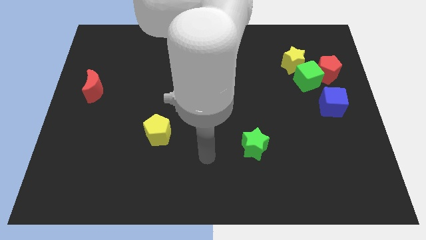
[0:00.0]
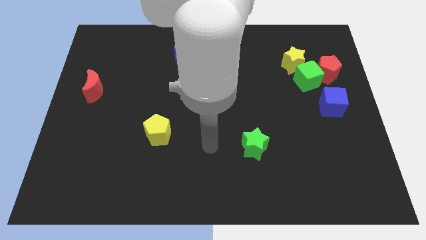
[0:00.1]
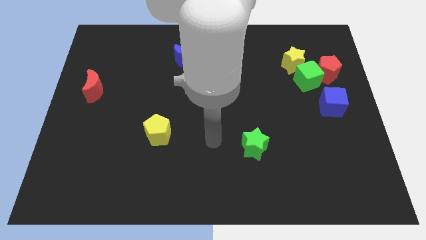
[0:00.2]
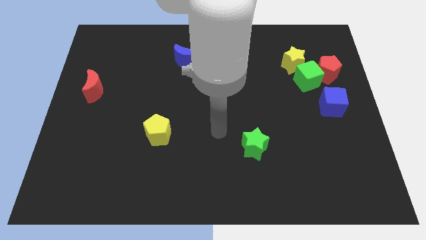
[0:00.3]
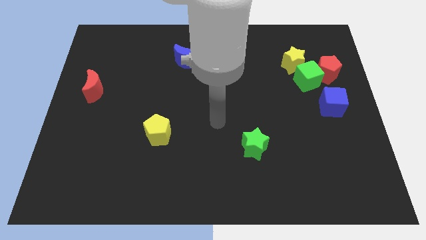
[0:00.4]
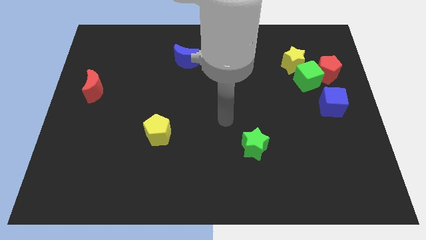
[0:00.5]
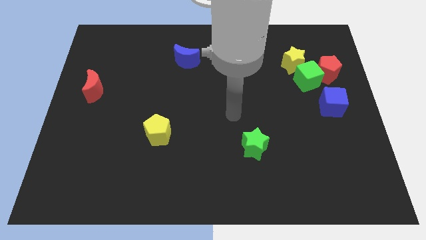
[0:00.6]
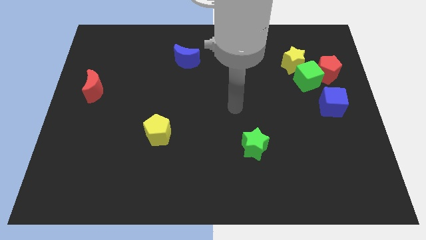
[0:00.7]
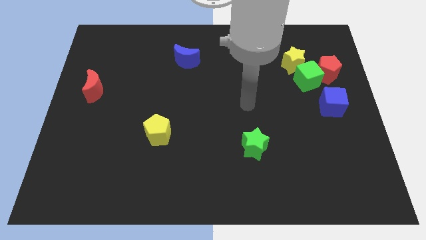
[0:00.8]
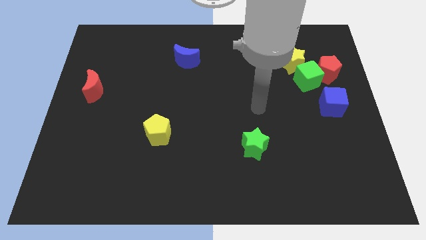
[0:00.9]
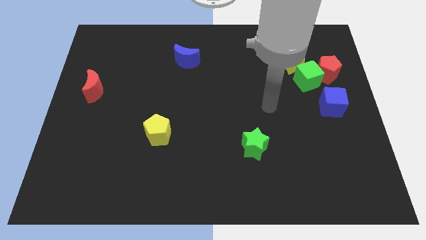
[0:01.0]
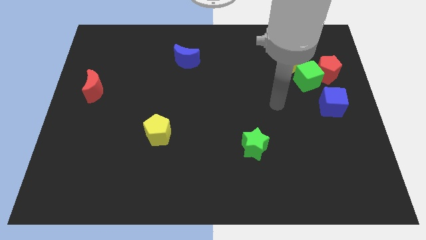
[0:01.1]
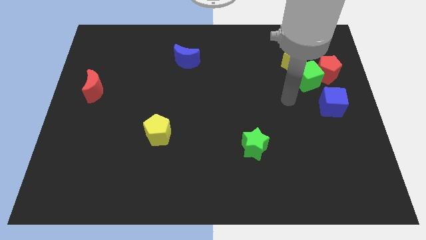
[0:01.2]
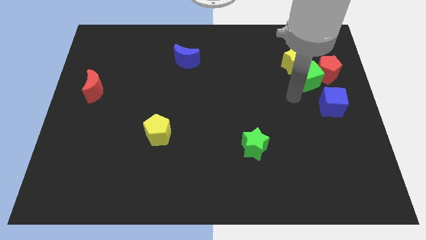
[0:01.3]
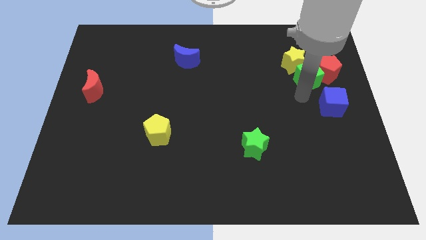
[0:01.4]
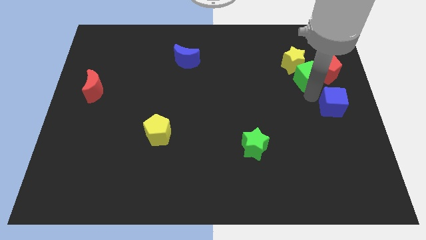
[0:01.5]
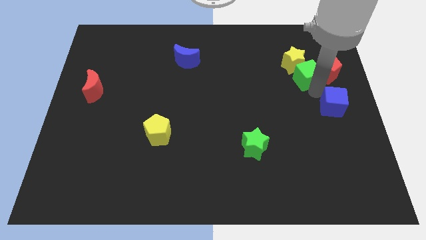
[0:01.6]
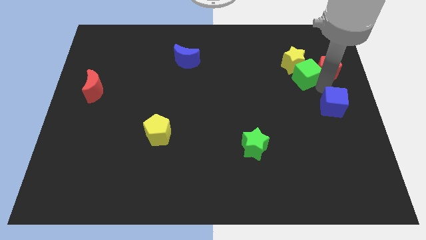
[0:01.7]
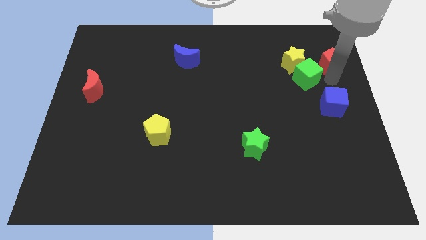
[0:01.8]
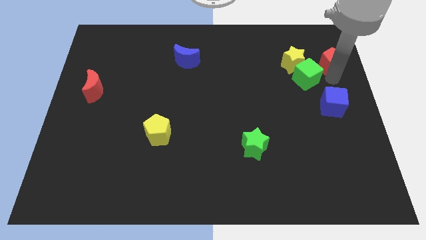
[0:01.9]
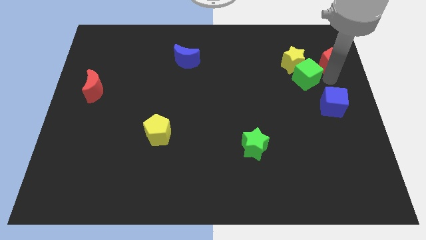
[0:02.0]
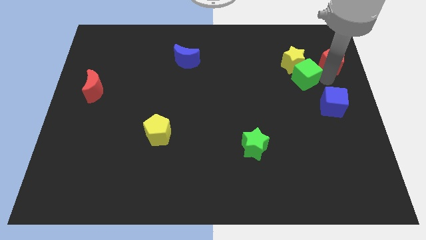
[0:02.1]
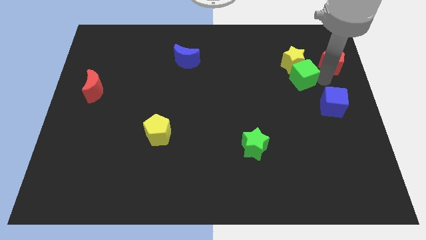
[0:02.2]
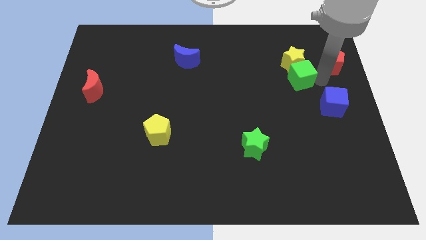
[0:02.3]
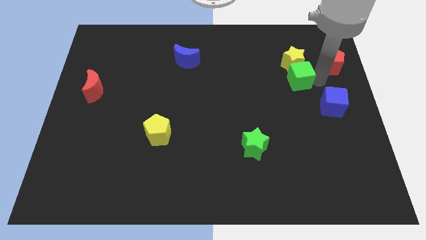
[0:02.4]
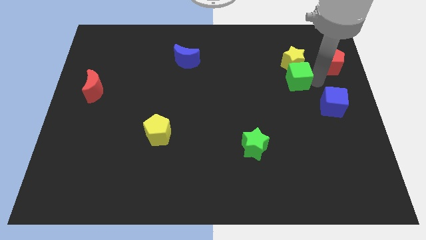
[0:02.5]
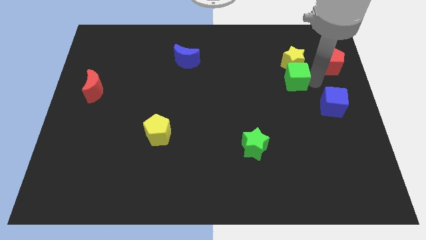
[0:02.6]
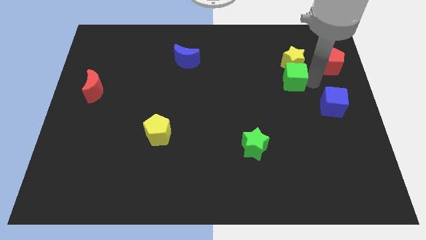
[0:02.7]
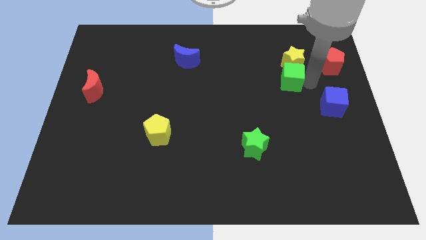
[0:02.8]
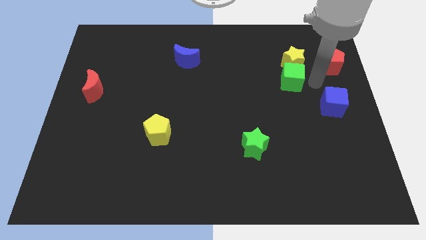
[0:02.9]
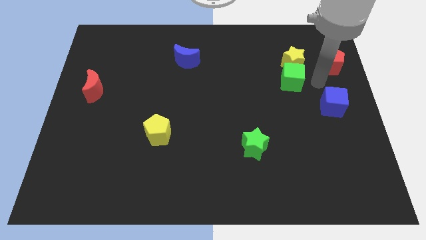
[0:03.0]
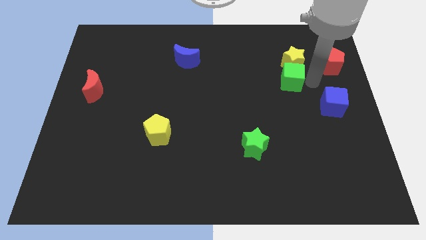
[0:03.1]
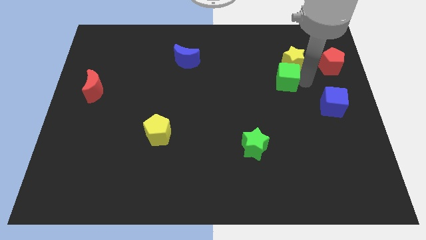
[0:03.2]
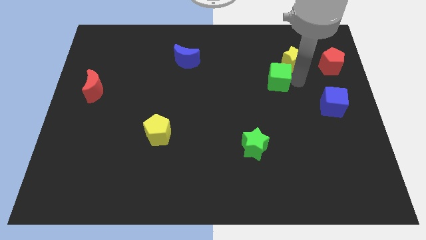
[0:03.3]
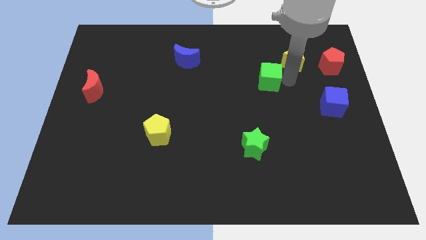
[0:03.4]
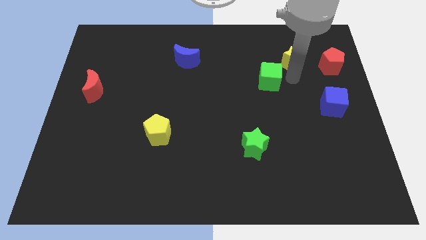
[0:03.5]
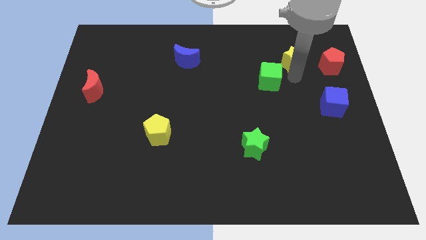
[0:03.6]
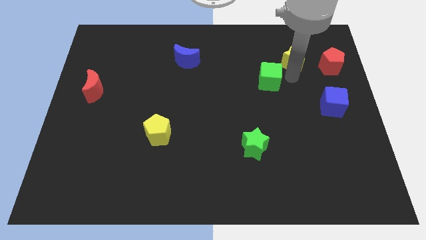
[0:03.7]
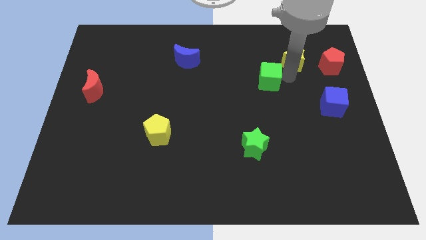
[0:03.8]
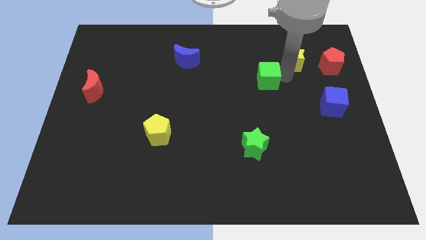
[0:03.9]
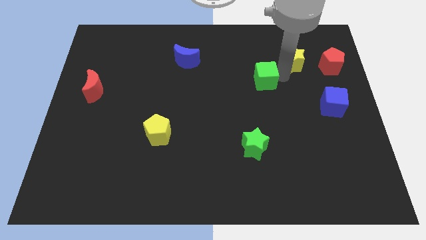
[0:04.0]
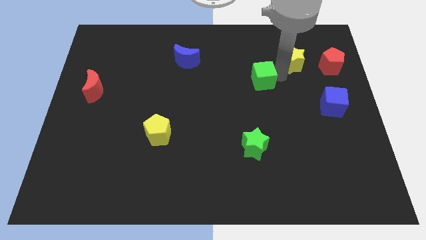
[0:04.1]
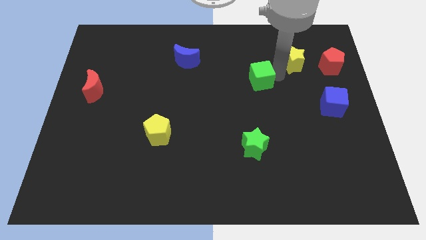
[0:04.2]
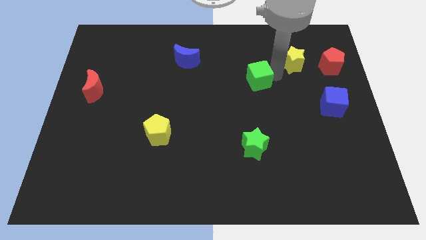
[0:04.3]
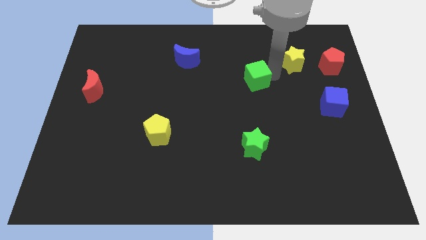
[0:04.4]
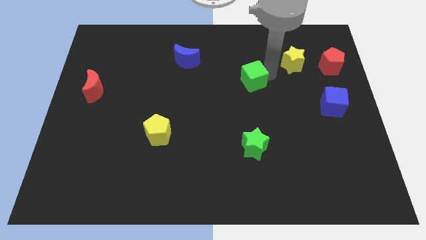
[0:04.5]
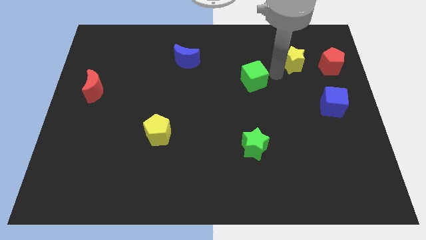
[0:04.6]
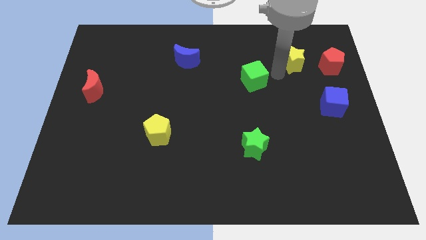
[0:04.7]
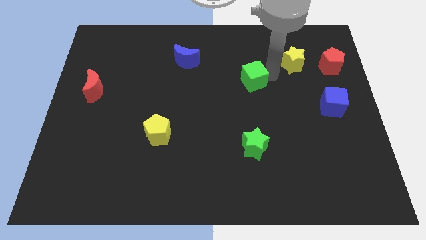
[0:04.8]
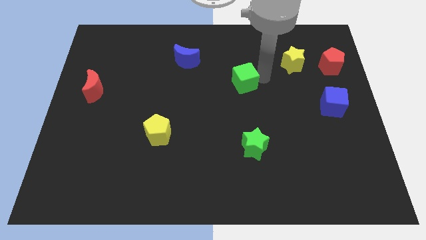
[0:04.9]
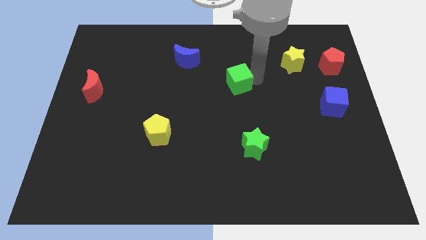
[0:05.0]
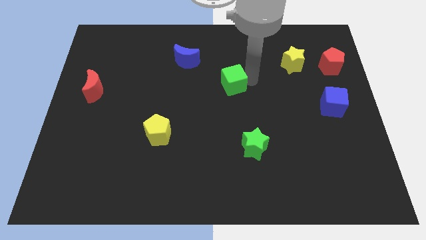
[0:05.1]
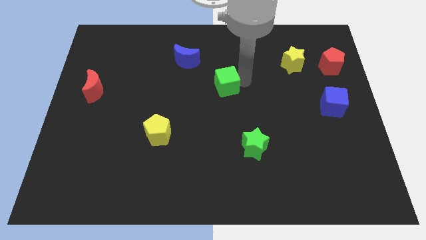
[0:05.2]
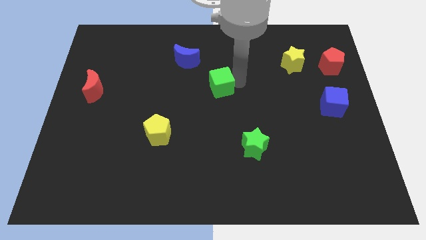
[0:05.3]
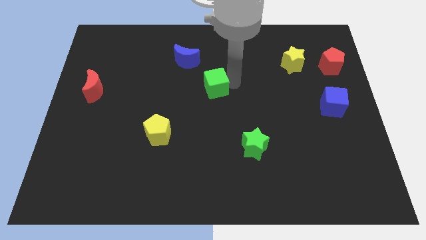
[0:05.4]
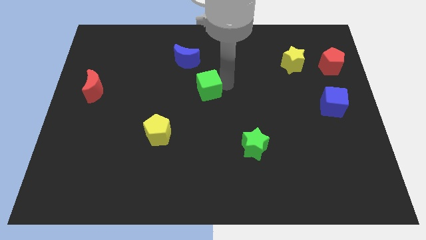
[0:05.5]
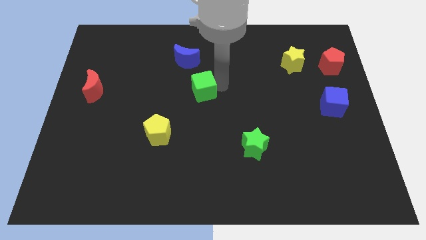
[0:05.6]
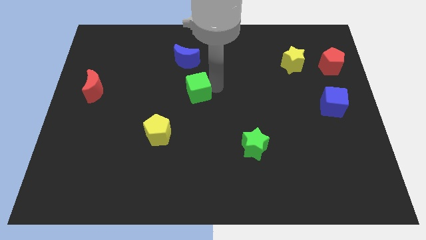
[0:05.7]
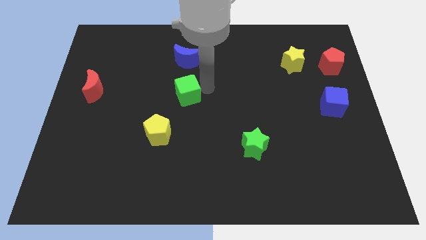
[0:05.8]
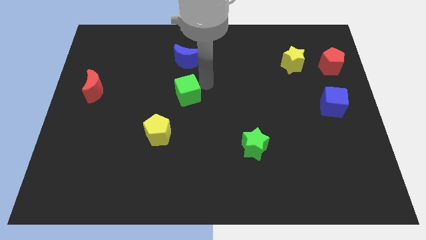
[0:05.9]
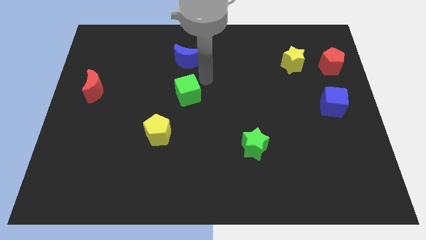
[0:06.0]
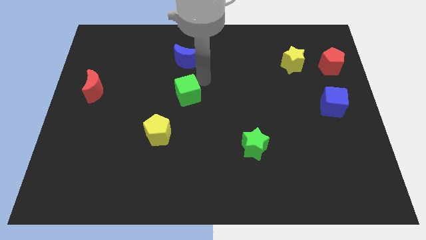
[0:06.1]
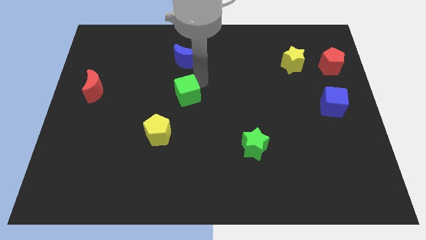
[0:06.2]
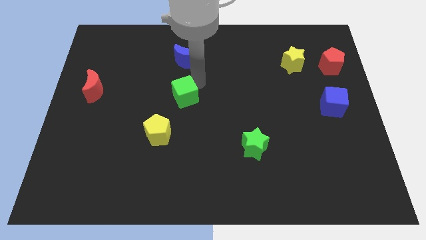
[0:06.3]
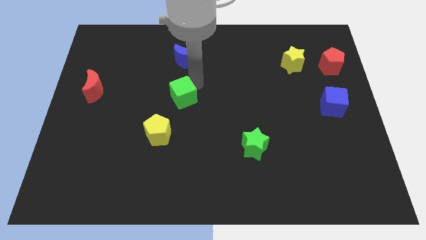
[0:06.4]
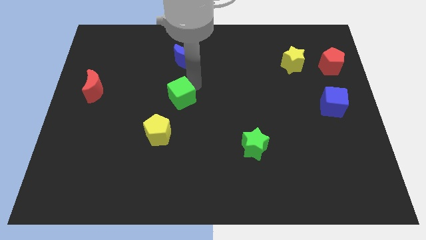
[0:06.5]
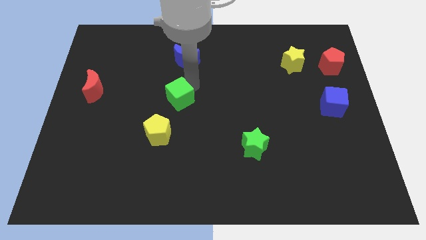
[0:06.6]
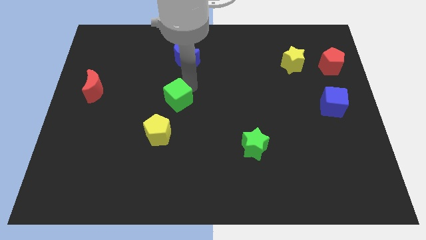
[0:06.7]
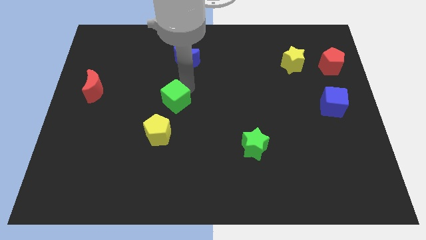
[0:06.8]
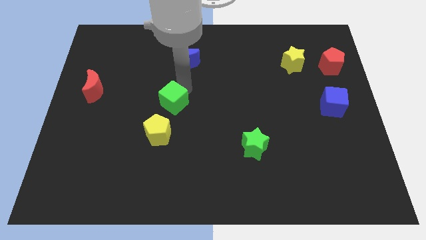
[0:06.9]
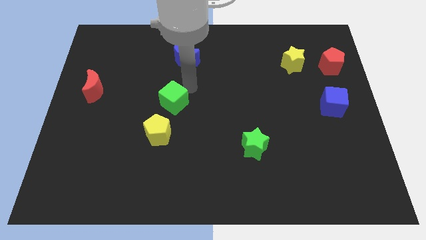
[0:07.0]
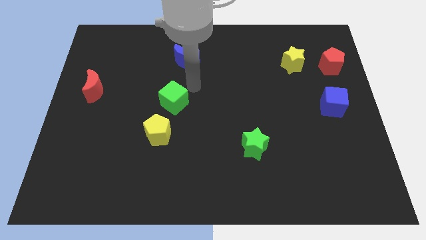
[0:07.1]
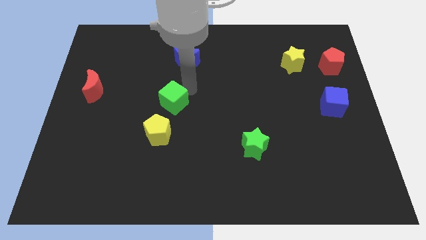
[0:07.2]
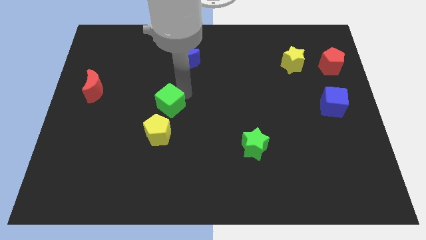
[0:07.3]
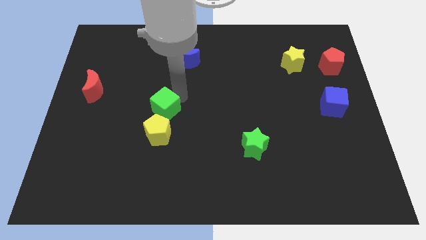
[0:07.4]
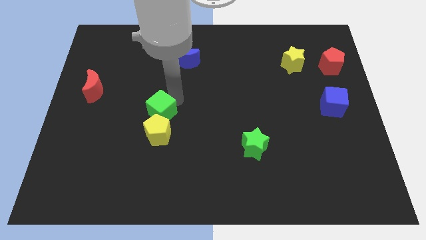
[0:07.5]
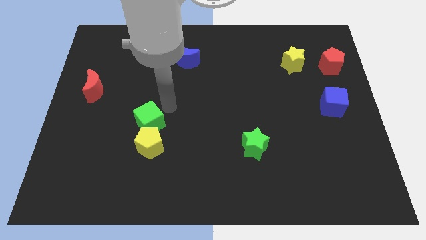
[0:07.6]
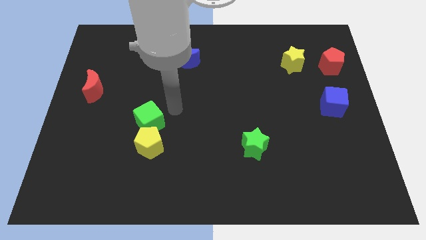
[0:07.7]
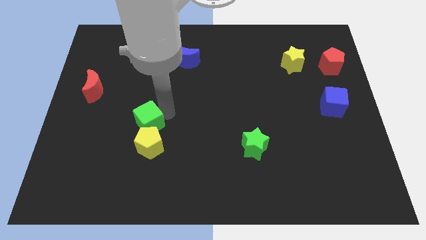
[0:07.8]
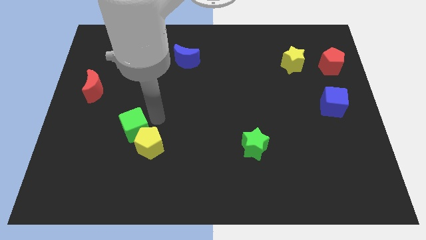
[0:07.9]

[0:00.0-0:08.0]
push the green cube to the left side of the yellow pentagon
